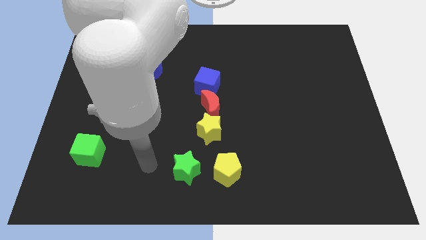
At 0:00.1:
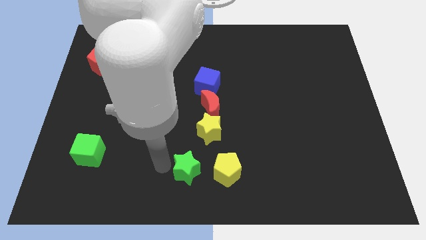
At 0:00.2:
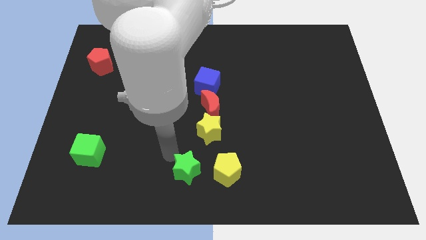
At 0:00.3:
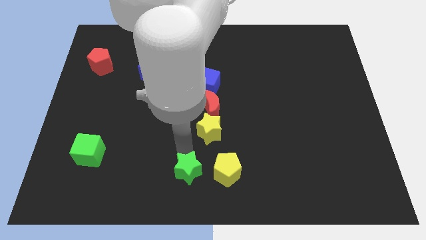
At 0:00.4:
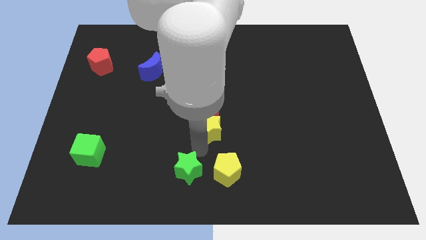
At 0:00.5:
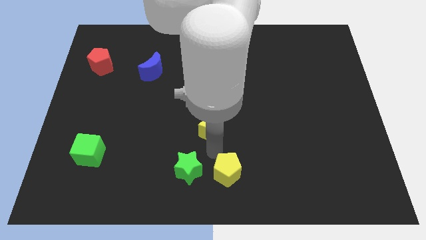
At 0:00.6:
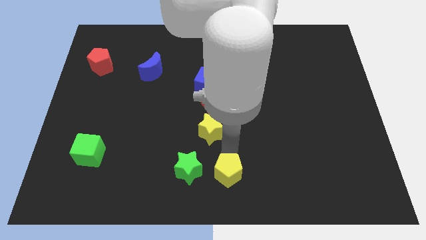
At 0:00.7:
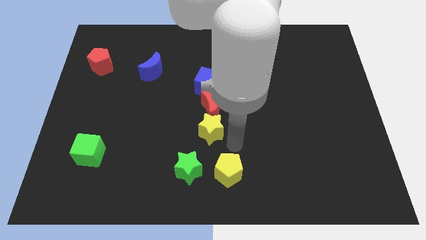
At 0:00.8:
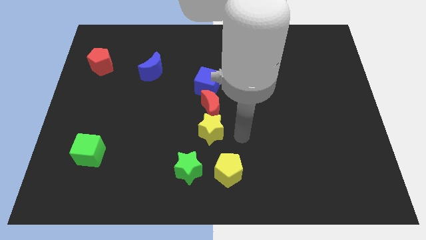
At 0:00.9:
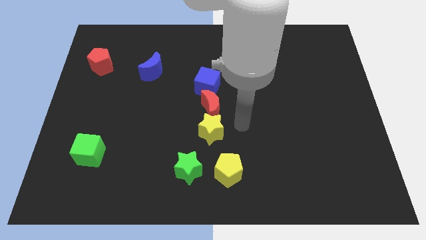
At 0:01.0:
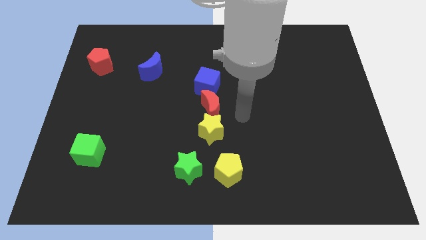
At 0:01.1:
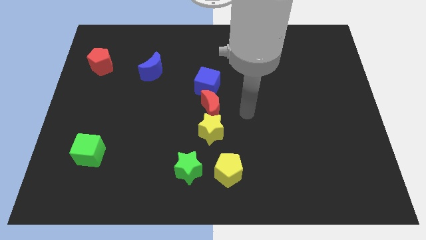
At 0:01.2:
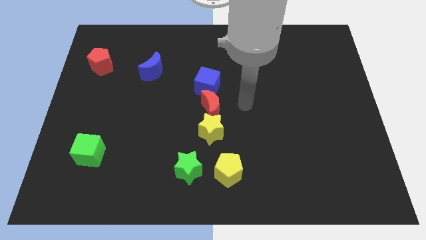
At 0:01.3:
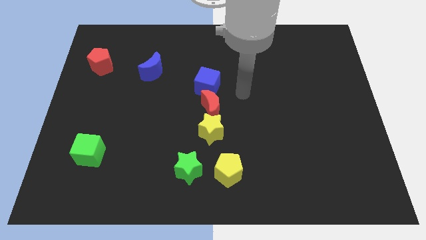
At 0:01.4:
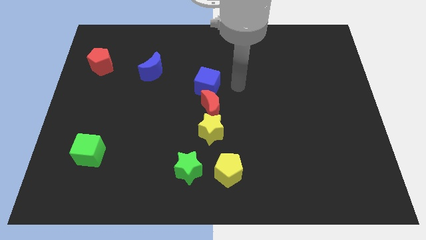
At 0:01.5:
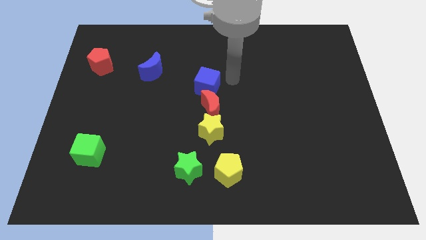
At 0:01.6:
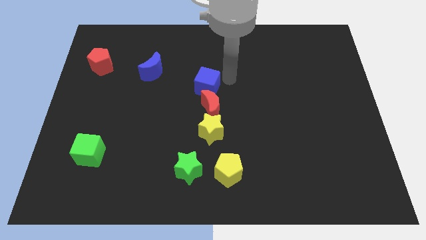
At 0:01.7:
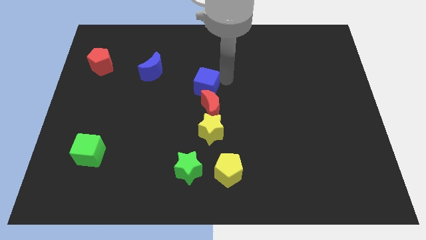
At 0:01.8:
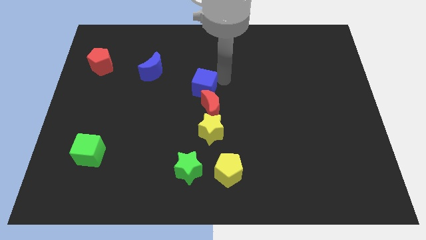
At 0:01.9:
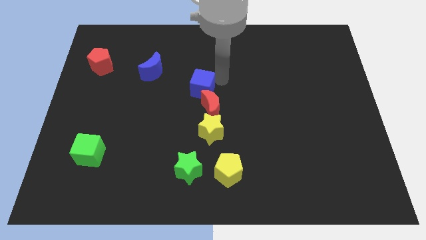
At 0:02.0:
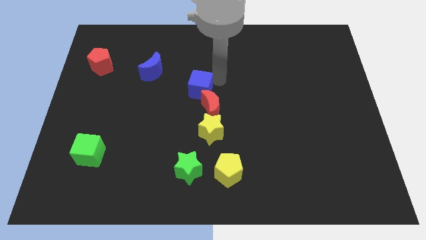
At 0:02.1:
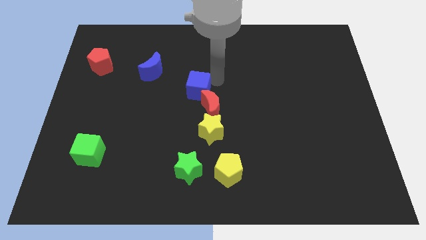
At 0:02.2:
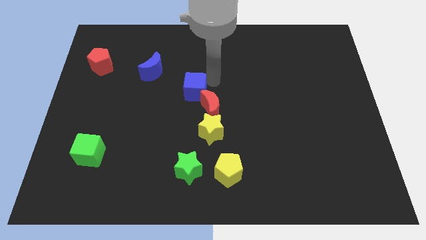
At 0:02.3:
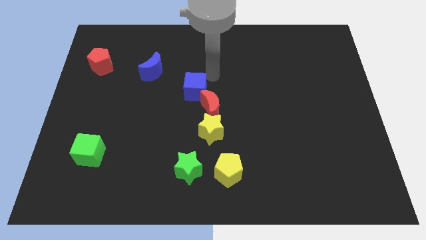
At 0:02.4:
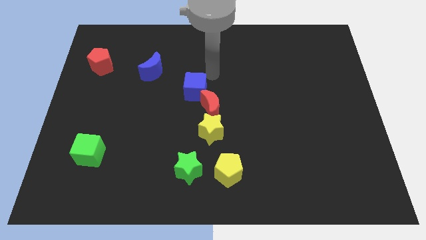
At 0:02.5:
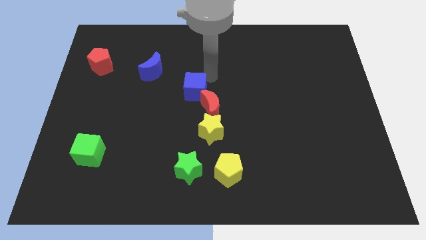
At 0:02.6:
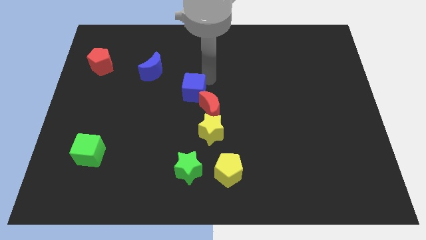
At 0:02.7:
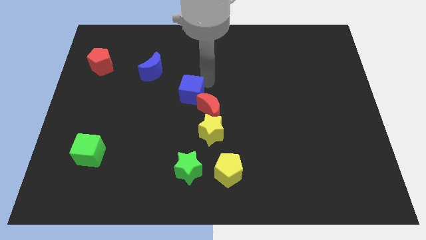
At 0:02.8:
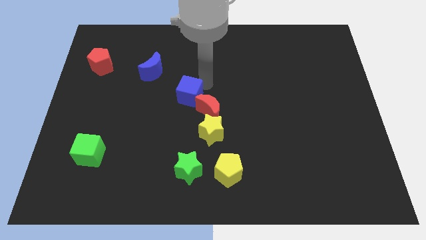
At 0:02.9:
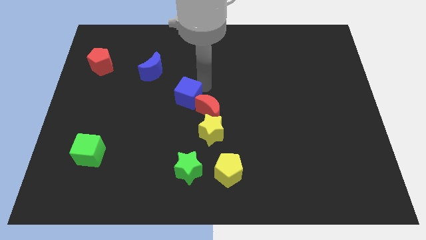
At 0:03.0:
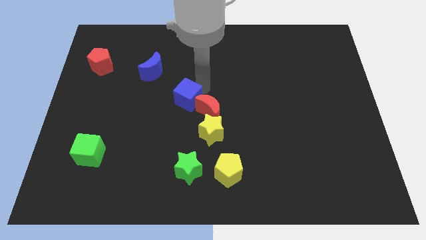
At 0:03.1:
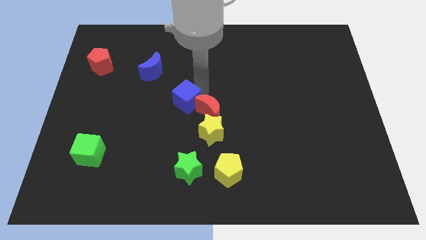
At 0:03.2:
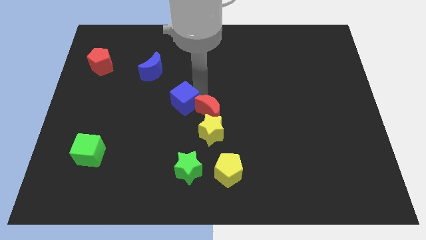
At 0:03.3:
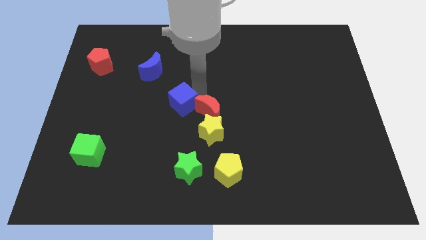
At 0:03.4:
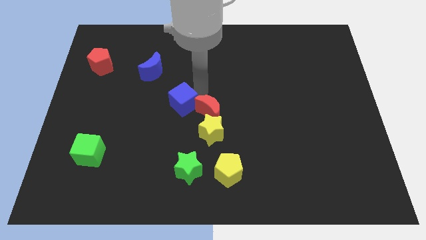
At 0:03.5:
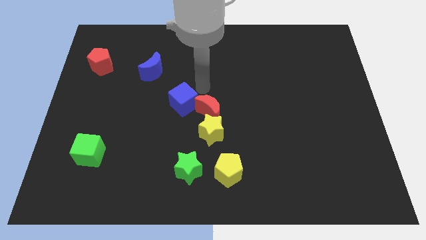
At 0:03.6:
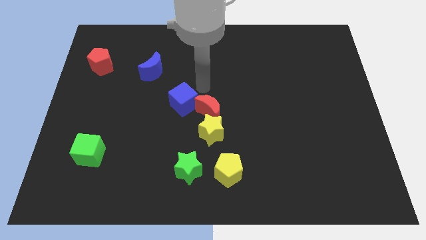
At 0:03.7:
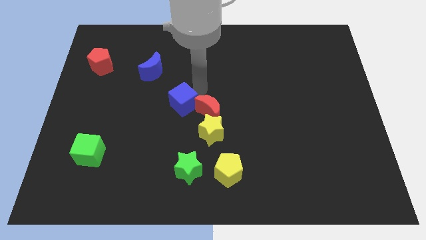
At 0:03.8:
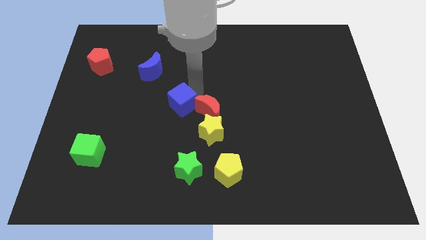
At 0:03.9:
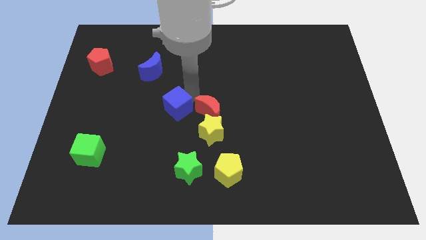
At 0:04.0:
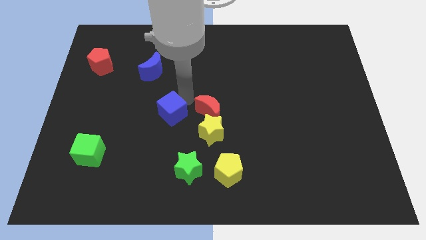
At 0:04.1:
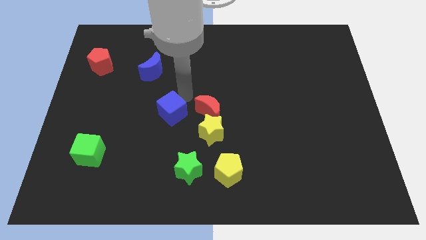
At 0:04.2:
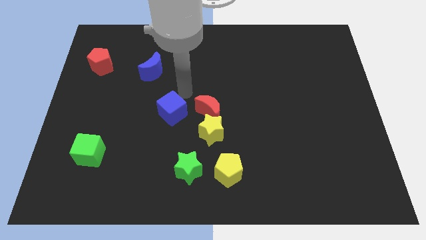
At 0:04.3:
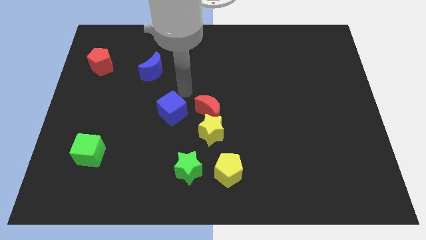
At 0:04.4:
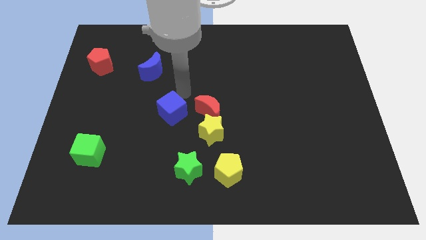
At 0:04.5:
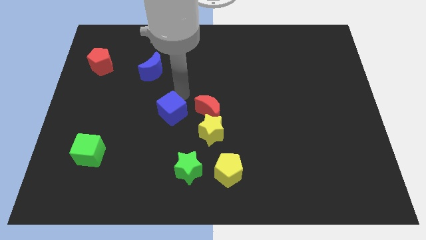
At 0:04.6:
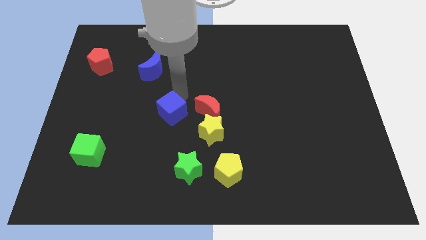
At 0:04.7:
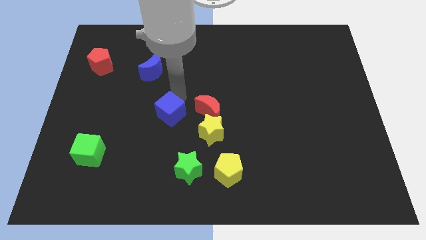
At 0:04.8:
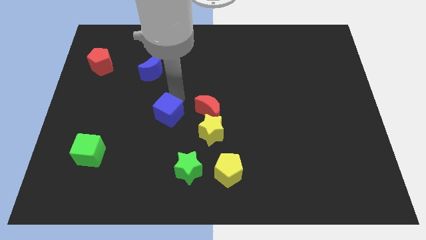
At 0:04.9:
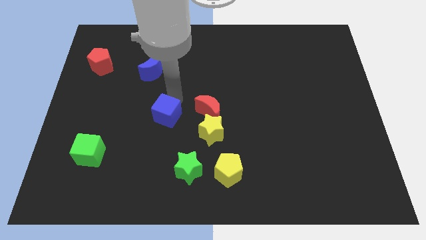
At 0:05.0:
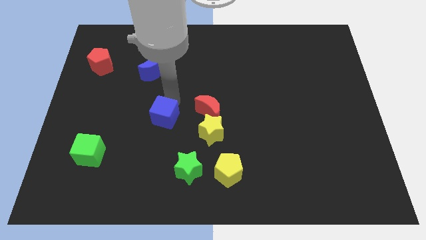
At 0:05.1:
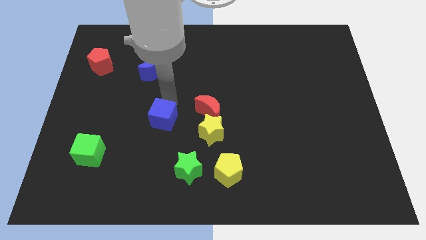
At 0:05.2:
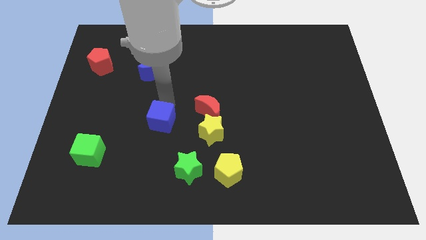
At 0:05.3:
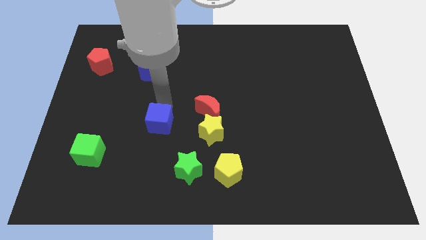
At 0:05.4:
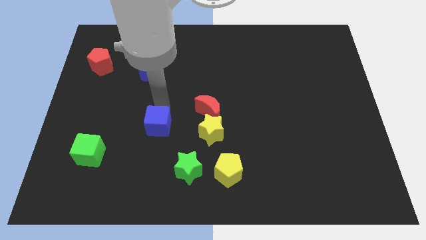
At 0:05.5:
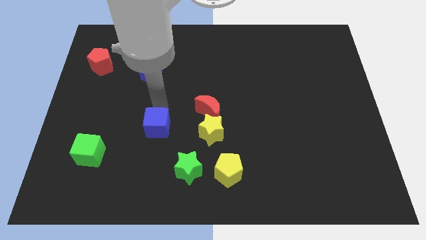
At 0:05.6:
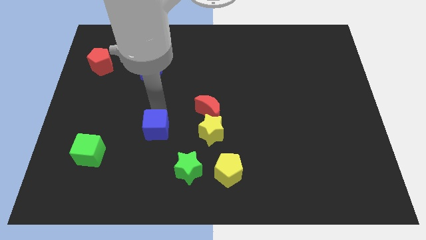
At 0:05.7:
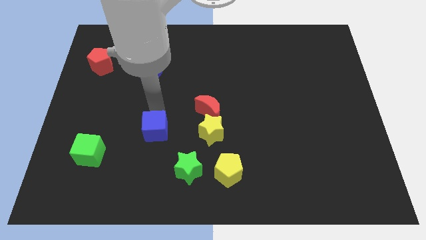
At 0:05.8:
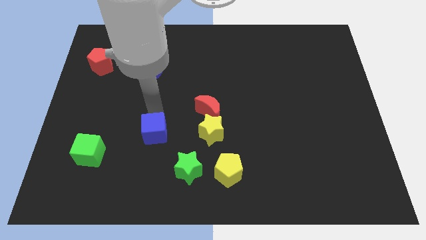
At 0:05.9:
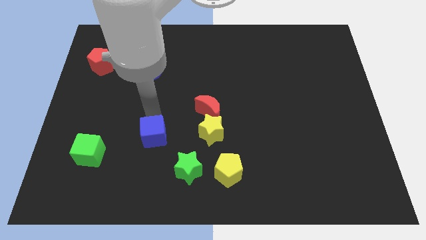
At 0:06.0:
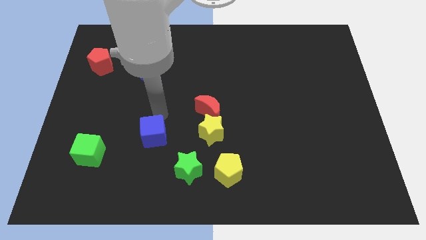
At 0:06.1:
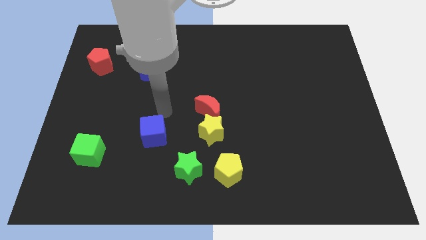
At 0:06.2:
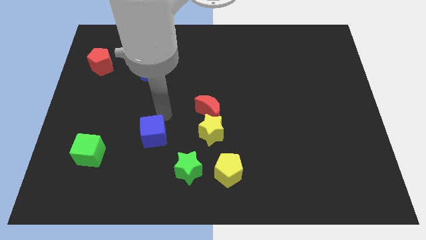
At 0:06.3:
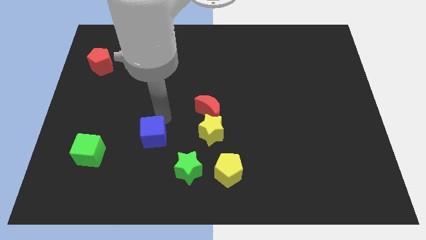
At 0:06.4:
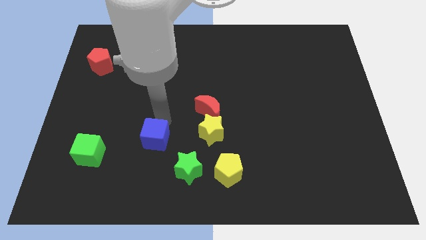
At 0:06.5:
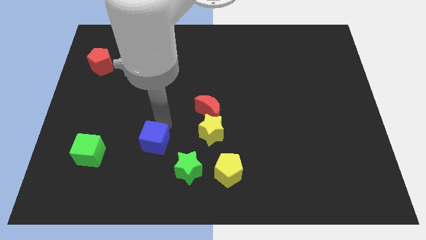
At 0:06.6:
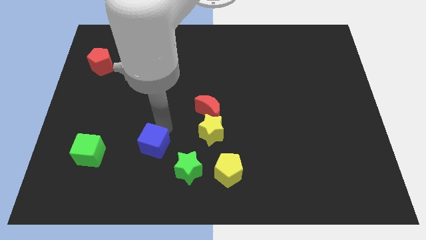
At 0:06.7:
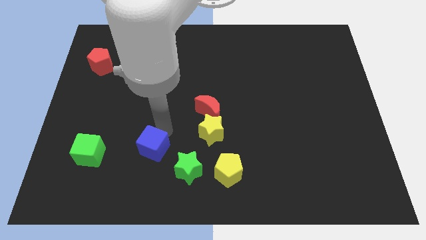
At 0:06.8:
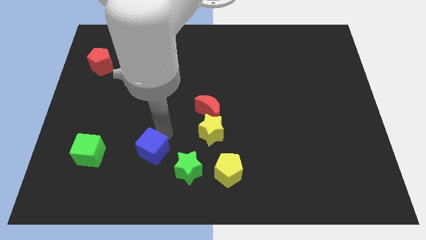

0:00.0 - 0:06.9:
push the blue cube left of the green star

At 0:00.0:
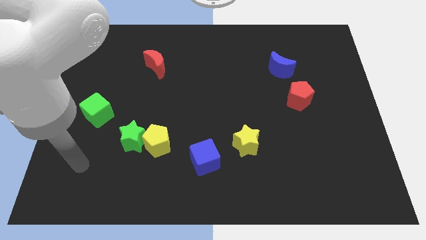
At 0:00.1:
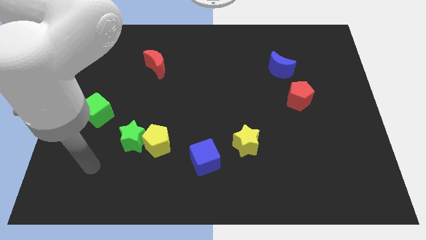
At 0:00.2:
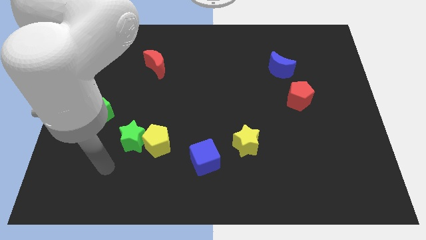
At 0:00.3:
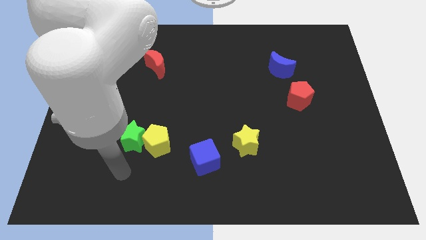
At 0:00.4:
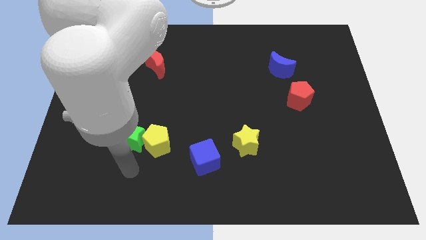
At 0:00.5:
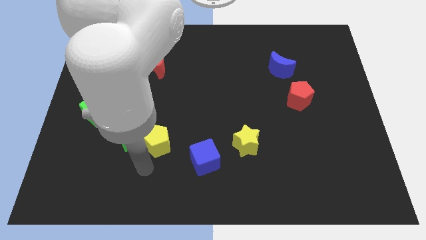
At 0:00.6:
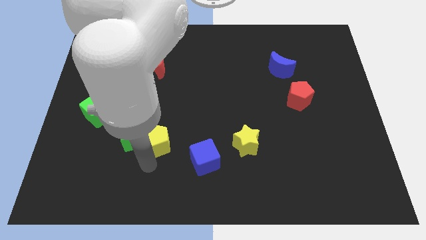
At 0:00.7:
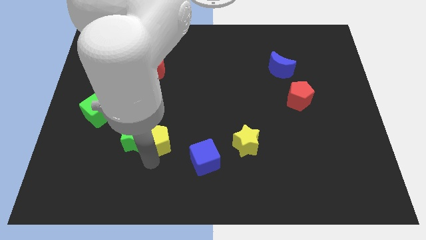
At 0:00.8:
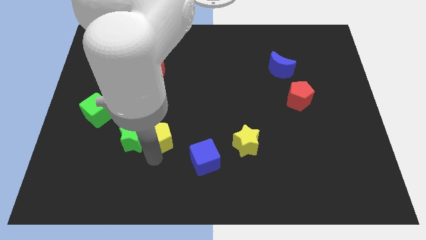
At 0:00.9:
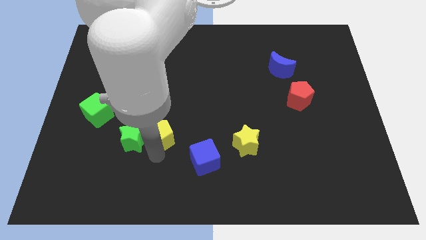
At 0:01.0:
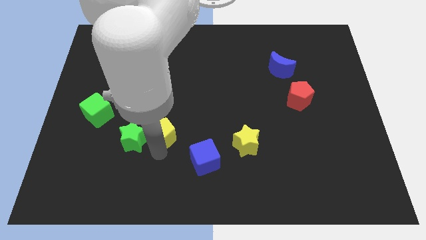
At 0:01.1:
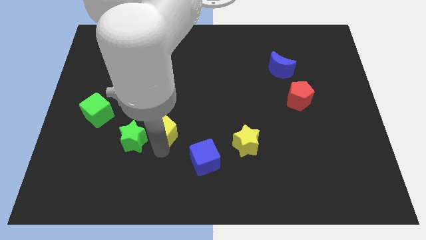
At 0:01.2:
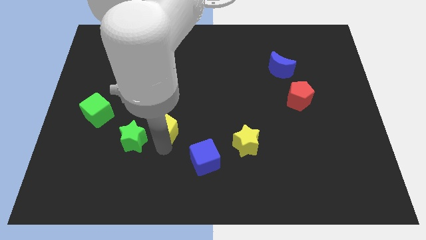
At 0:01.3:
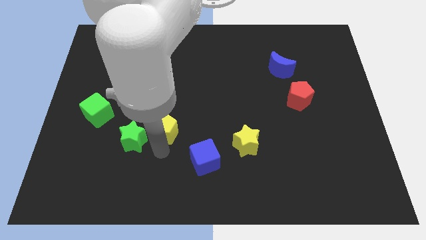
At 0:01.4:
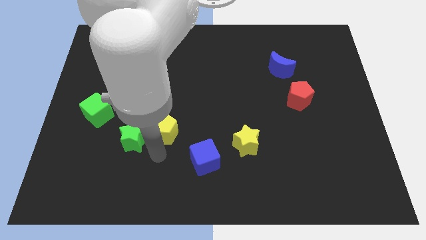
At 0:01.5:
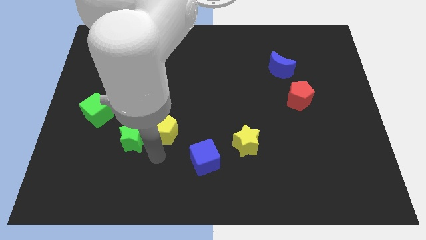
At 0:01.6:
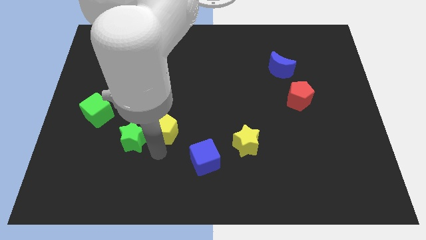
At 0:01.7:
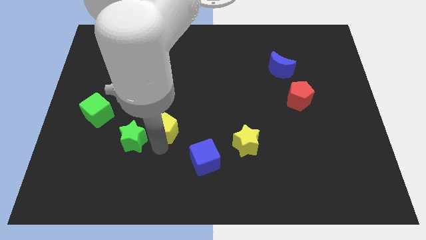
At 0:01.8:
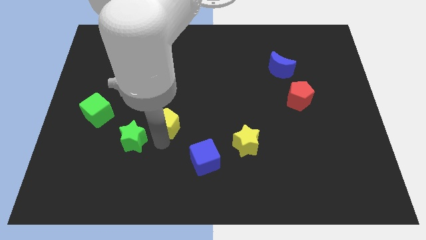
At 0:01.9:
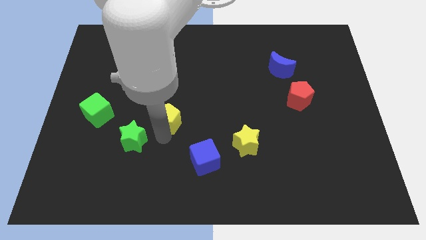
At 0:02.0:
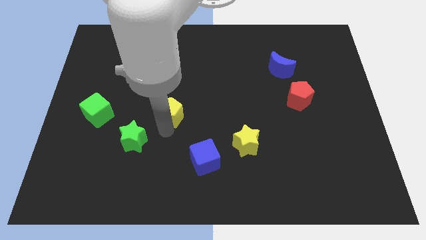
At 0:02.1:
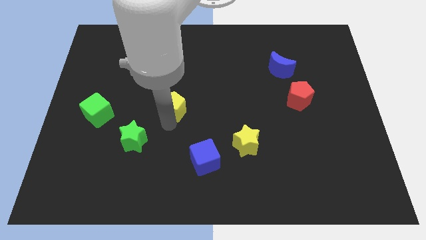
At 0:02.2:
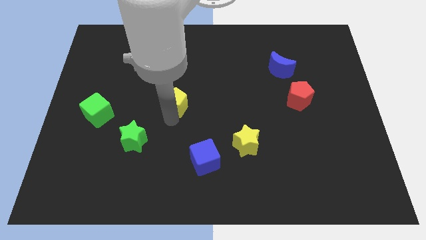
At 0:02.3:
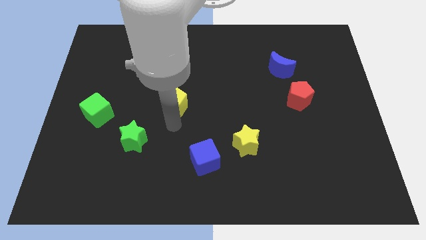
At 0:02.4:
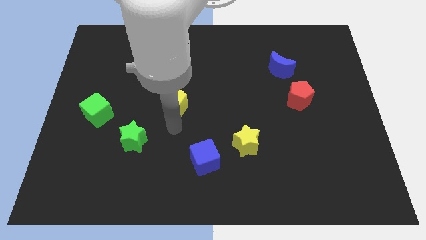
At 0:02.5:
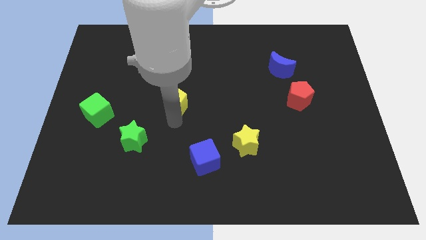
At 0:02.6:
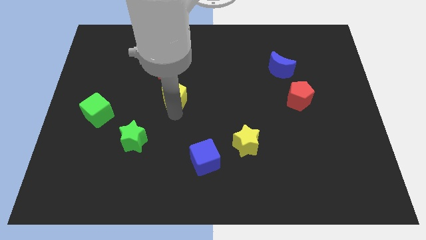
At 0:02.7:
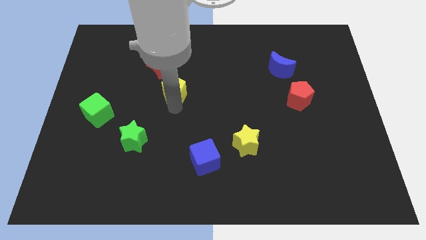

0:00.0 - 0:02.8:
move the yellow pentagon diagonally down and to the right of the red moon
